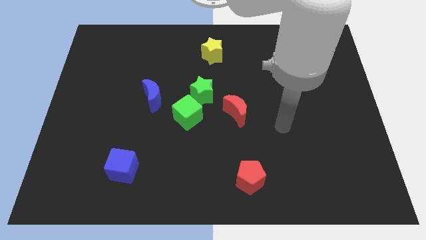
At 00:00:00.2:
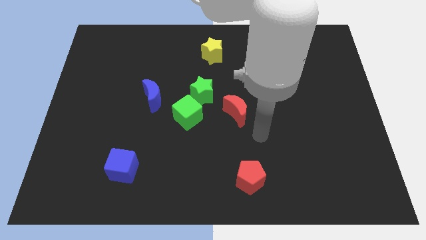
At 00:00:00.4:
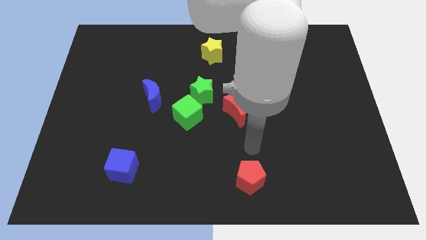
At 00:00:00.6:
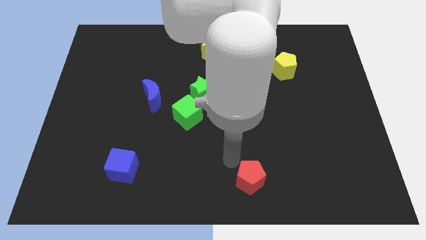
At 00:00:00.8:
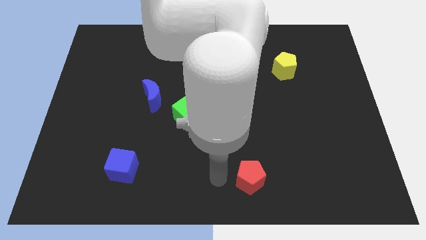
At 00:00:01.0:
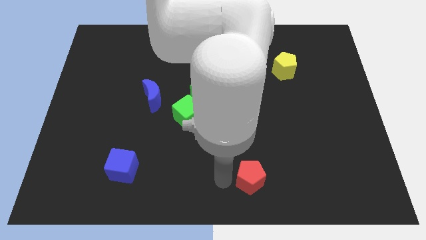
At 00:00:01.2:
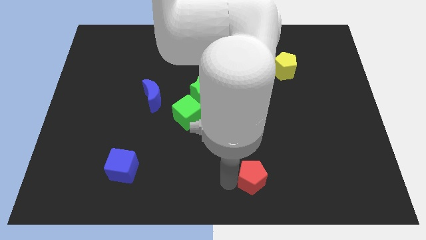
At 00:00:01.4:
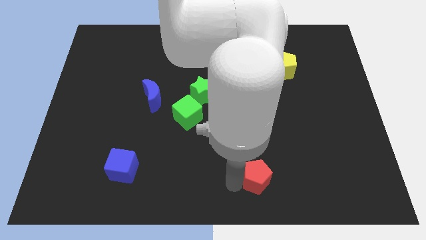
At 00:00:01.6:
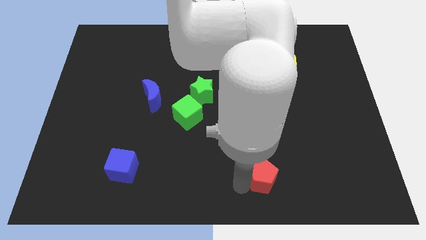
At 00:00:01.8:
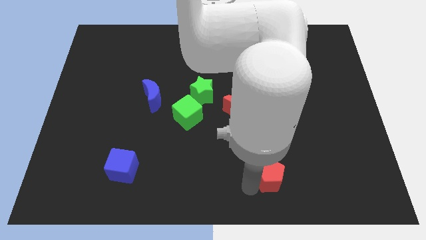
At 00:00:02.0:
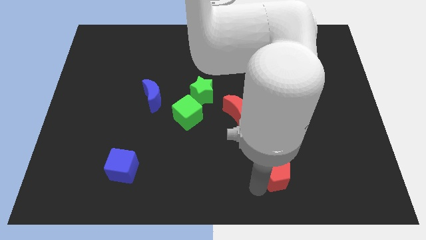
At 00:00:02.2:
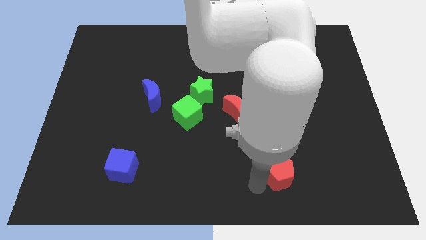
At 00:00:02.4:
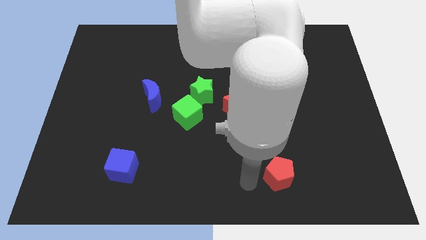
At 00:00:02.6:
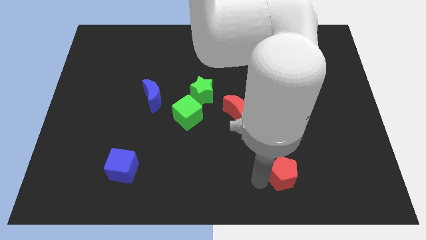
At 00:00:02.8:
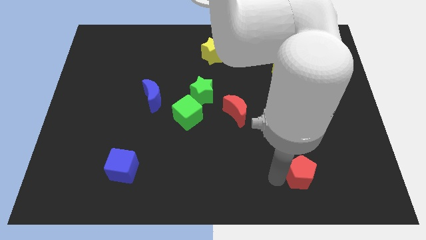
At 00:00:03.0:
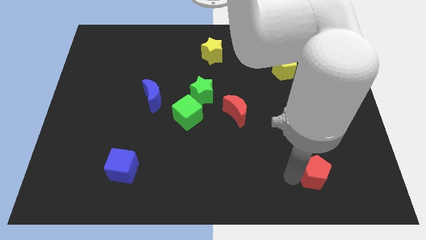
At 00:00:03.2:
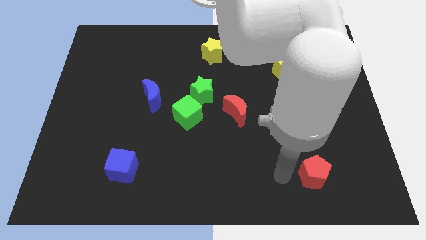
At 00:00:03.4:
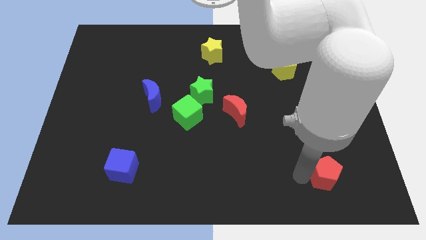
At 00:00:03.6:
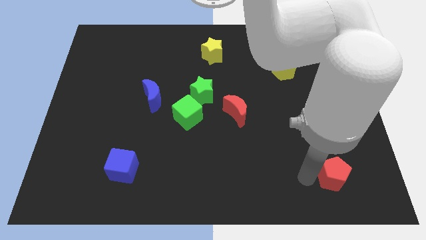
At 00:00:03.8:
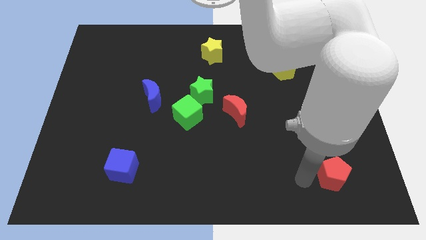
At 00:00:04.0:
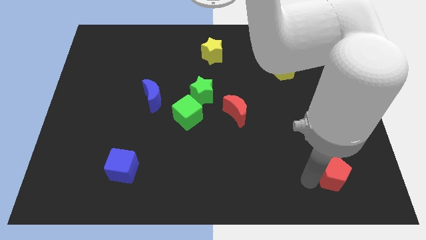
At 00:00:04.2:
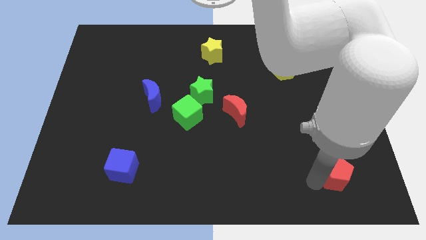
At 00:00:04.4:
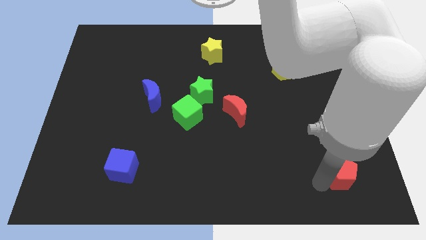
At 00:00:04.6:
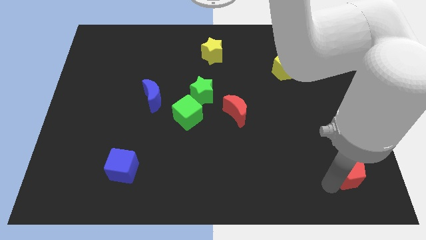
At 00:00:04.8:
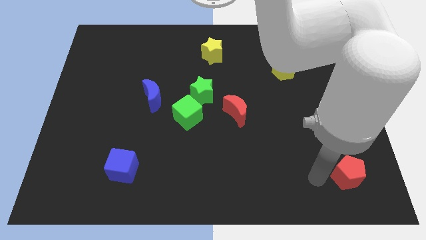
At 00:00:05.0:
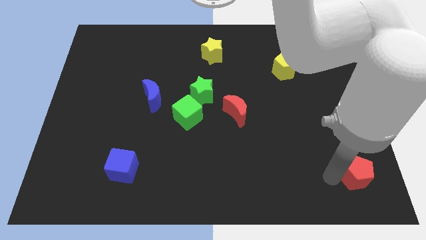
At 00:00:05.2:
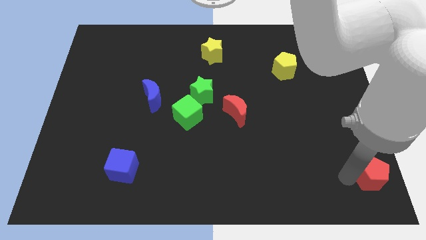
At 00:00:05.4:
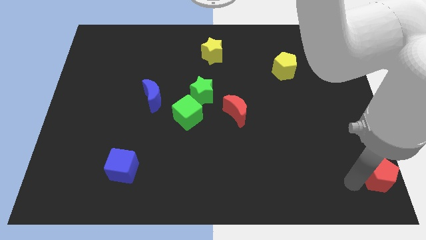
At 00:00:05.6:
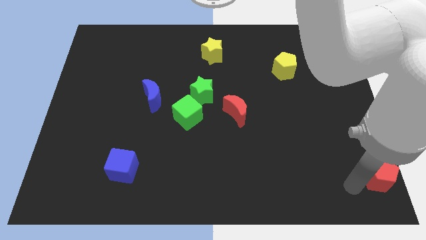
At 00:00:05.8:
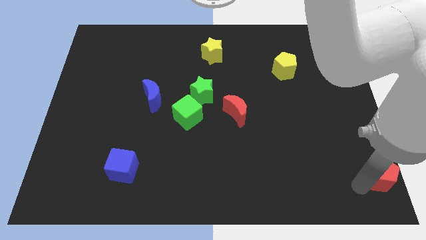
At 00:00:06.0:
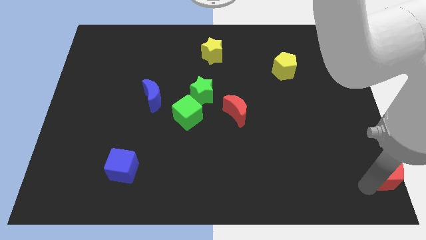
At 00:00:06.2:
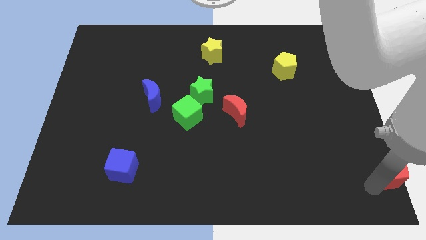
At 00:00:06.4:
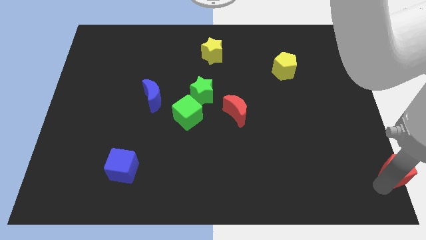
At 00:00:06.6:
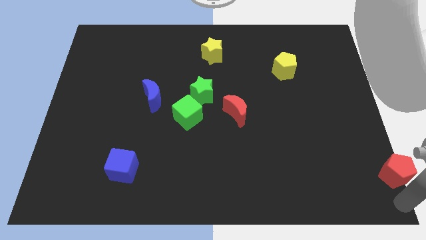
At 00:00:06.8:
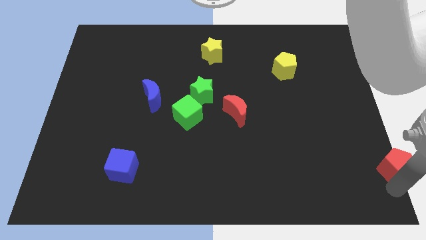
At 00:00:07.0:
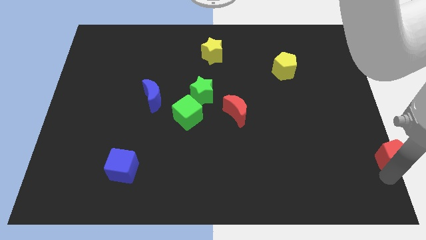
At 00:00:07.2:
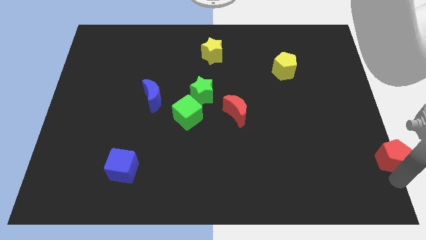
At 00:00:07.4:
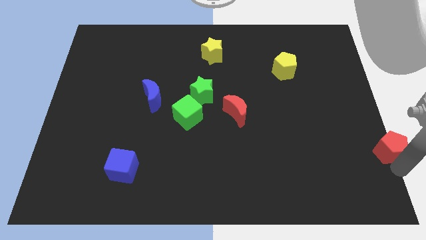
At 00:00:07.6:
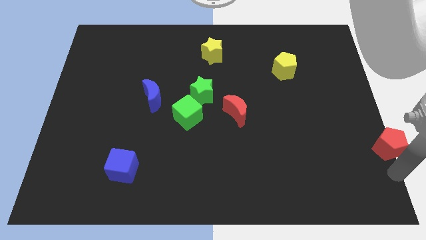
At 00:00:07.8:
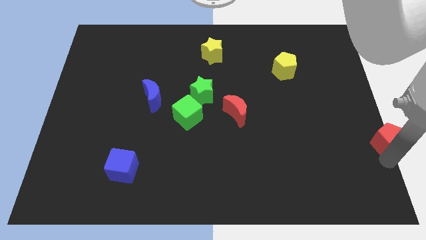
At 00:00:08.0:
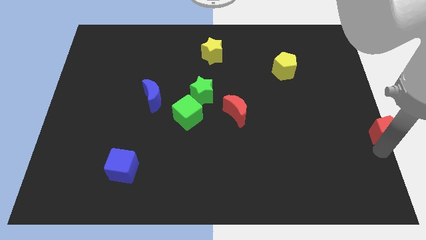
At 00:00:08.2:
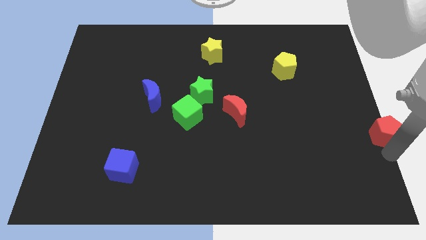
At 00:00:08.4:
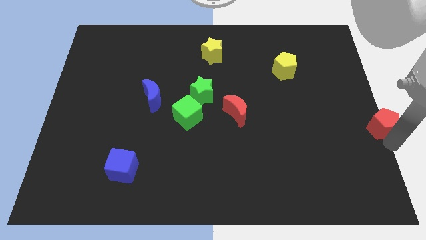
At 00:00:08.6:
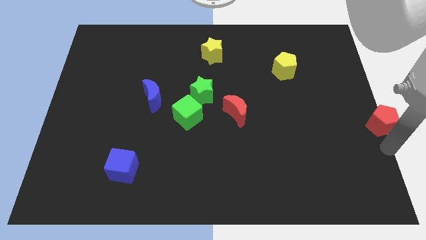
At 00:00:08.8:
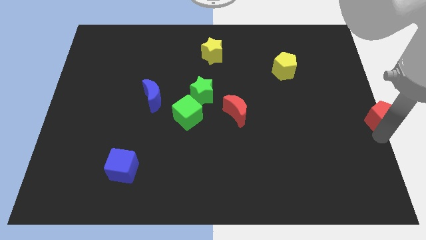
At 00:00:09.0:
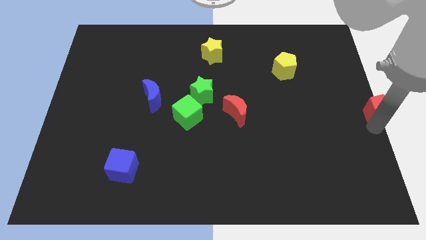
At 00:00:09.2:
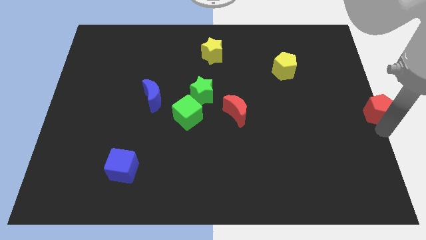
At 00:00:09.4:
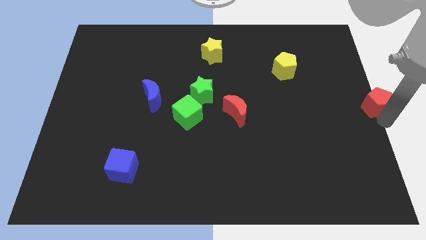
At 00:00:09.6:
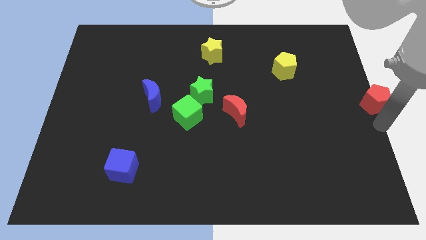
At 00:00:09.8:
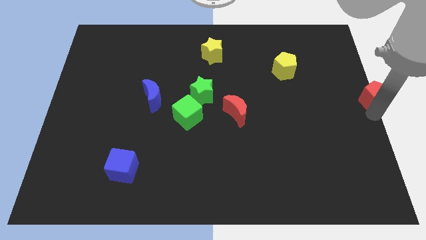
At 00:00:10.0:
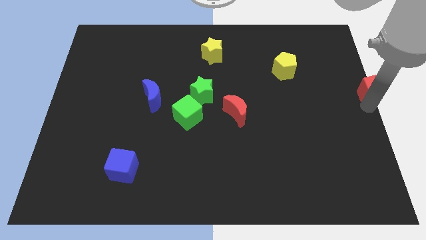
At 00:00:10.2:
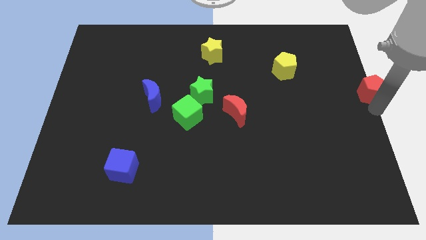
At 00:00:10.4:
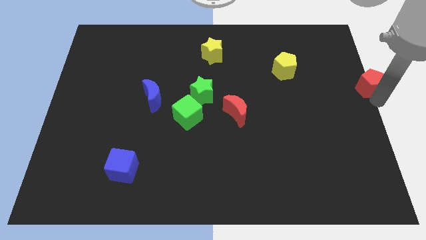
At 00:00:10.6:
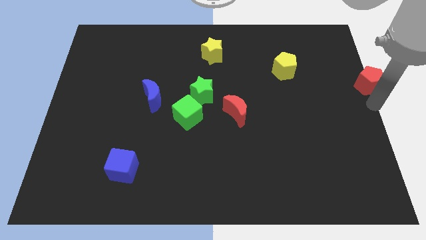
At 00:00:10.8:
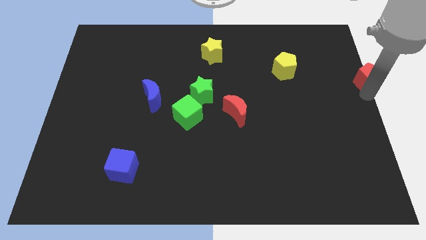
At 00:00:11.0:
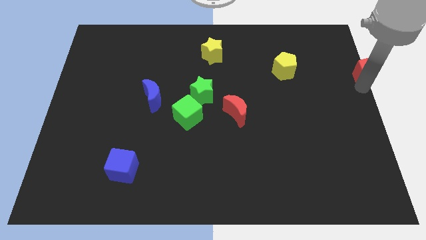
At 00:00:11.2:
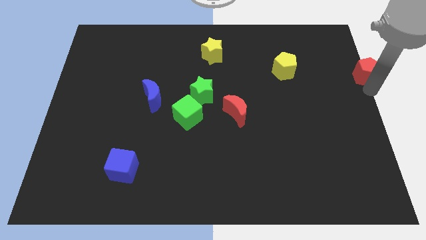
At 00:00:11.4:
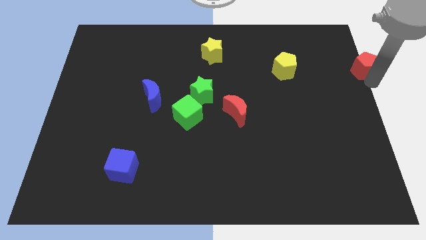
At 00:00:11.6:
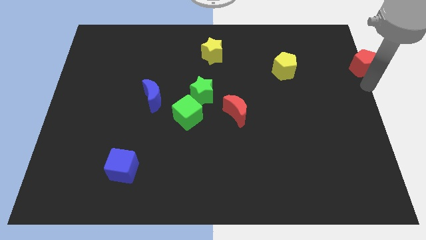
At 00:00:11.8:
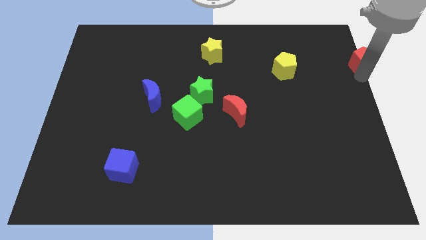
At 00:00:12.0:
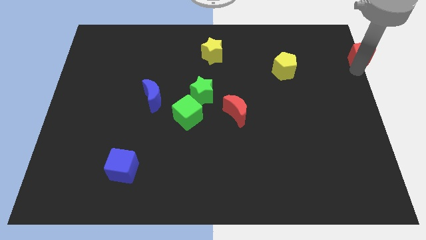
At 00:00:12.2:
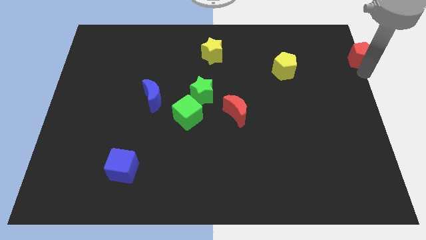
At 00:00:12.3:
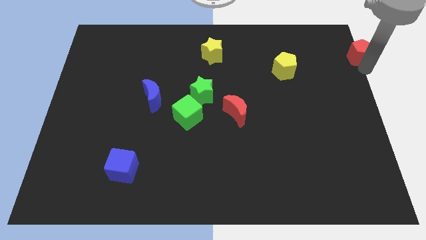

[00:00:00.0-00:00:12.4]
push the red pentagon to the upper right corner

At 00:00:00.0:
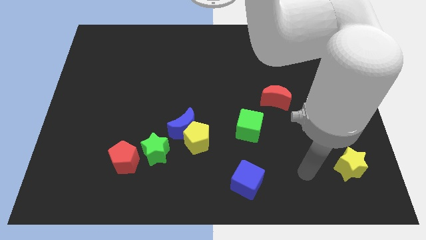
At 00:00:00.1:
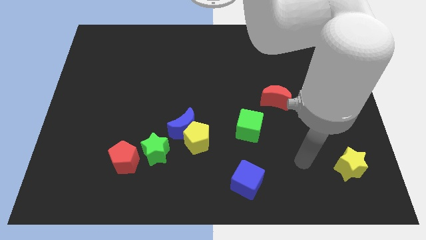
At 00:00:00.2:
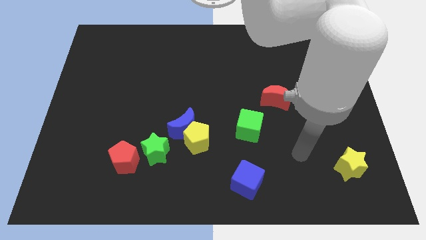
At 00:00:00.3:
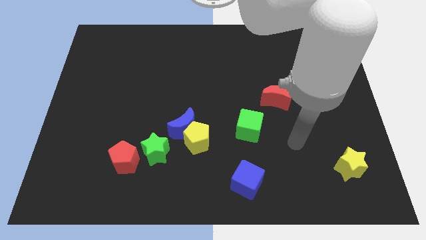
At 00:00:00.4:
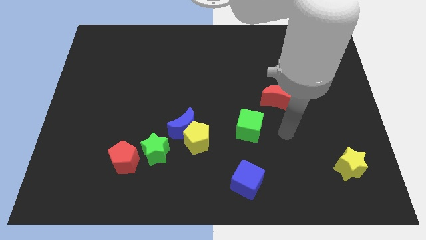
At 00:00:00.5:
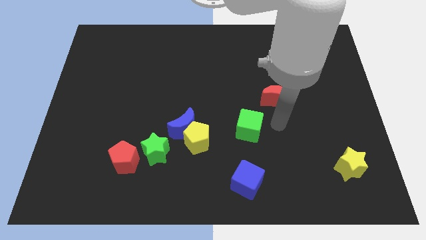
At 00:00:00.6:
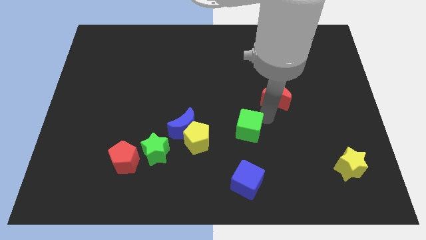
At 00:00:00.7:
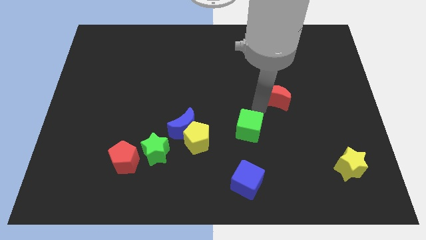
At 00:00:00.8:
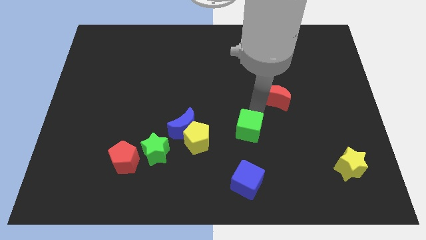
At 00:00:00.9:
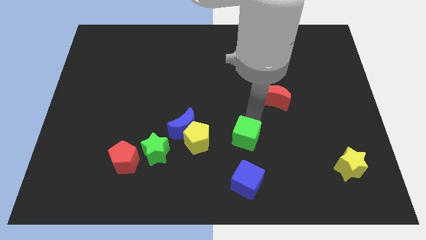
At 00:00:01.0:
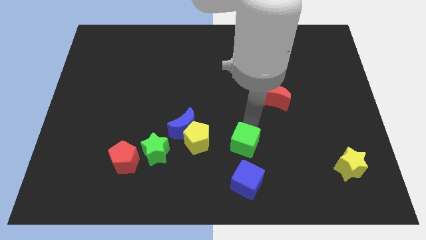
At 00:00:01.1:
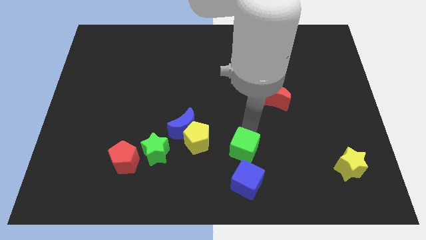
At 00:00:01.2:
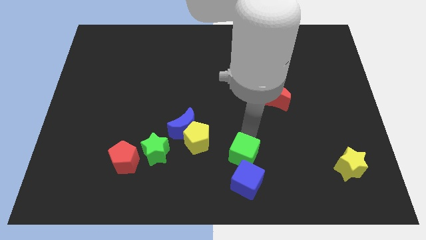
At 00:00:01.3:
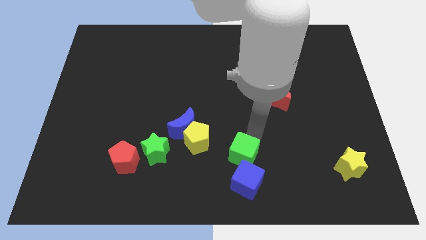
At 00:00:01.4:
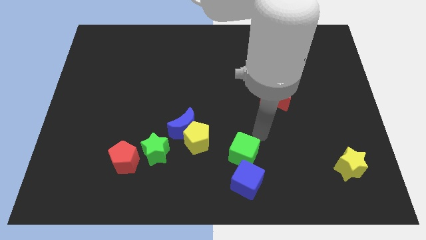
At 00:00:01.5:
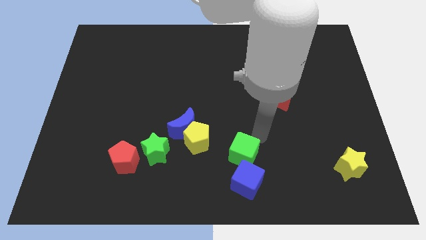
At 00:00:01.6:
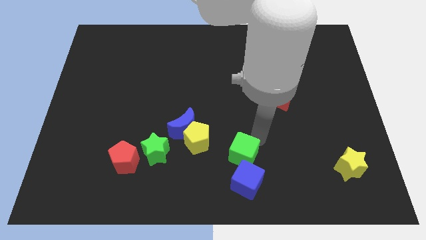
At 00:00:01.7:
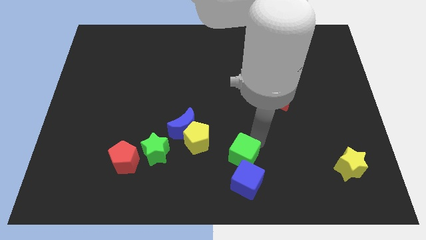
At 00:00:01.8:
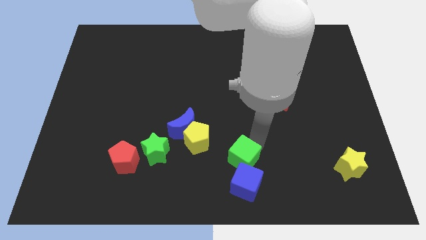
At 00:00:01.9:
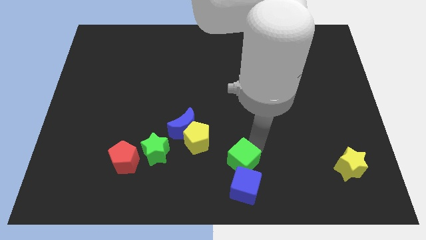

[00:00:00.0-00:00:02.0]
put the green cube to the bottom
